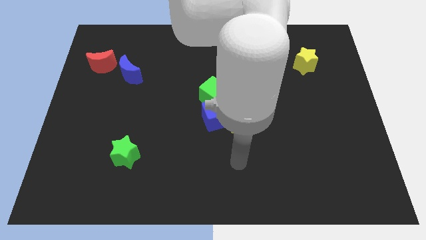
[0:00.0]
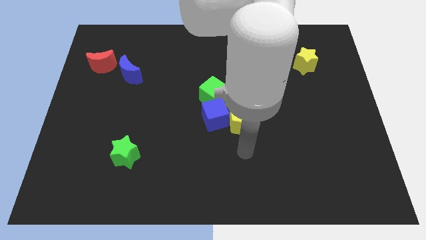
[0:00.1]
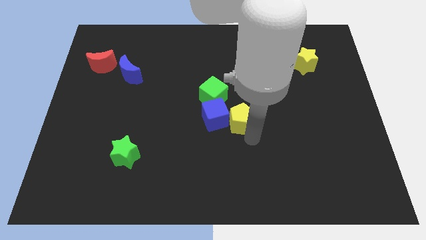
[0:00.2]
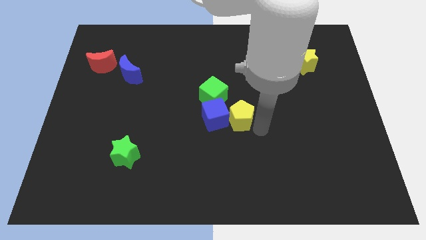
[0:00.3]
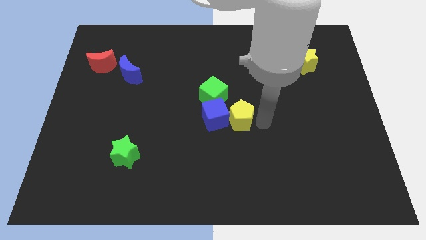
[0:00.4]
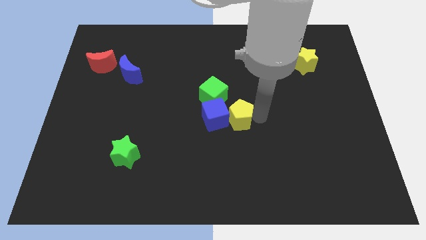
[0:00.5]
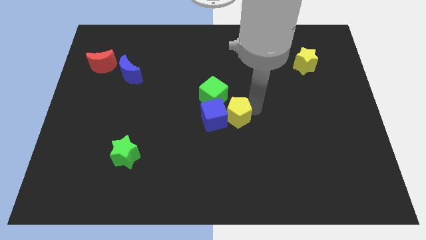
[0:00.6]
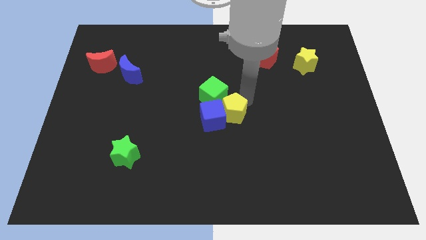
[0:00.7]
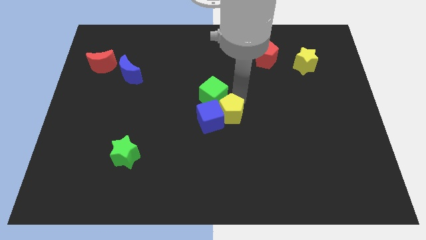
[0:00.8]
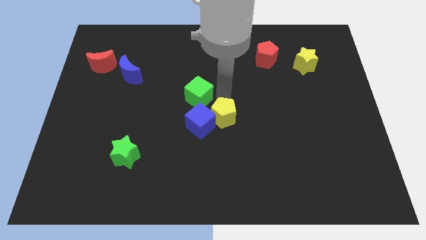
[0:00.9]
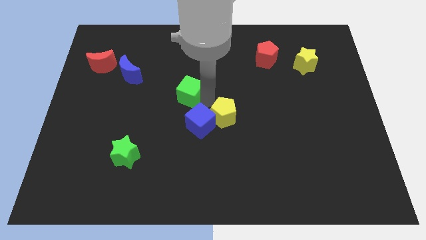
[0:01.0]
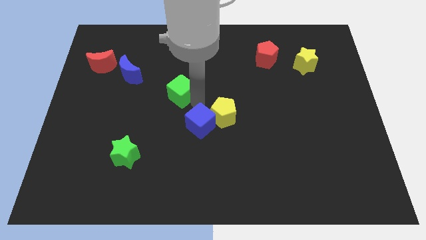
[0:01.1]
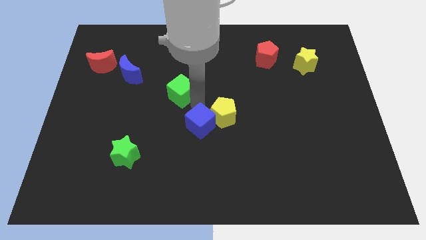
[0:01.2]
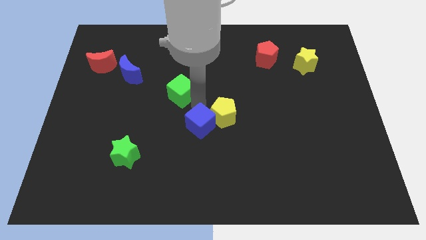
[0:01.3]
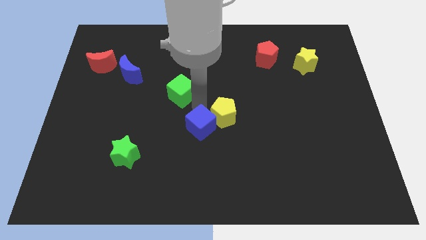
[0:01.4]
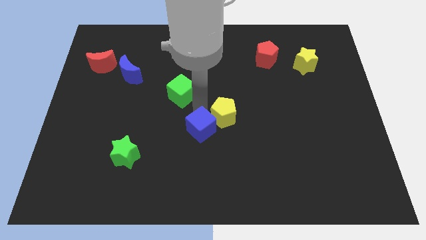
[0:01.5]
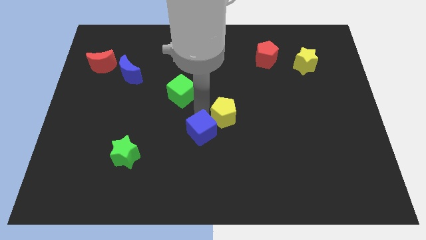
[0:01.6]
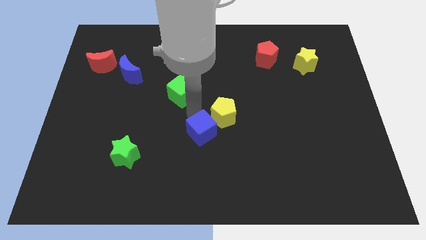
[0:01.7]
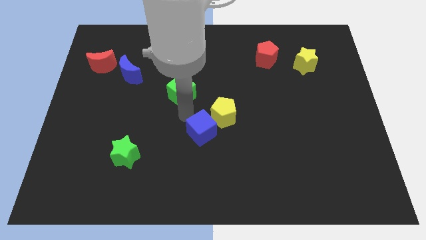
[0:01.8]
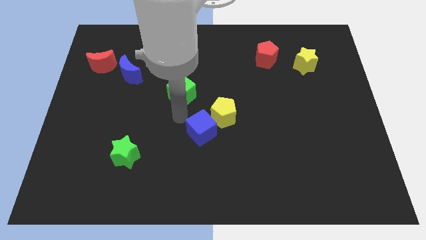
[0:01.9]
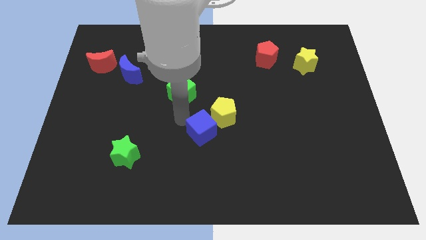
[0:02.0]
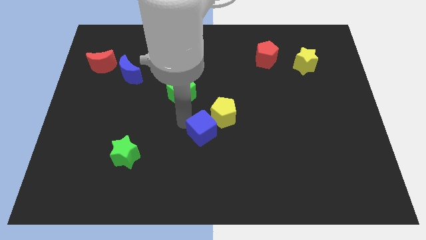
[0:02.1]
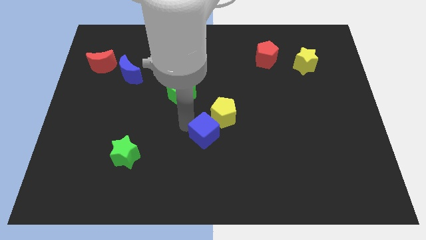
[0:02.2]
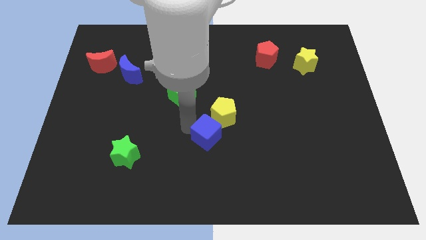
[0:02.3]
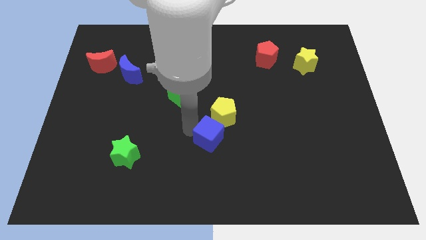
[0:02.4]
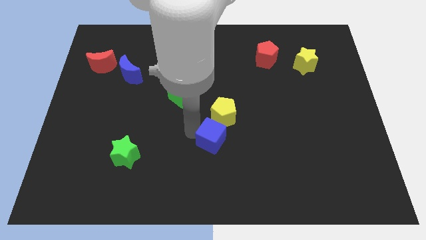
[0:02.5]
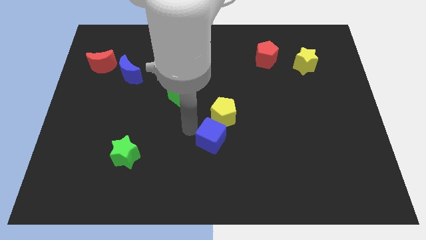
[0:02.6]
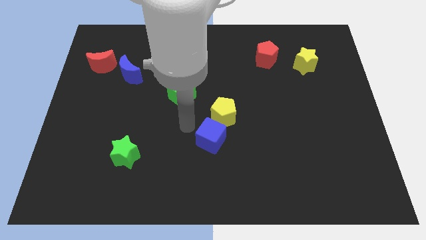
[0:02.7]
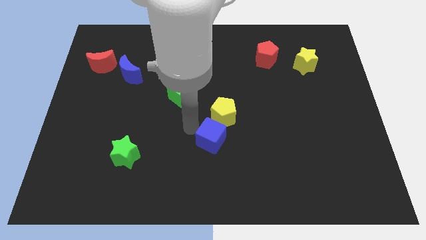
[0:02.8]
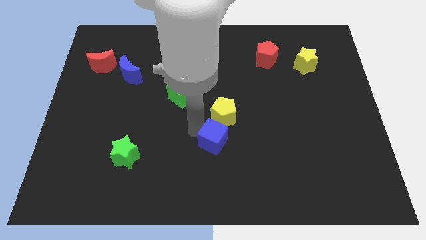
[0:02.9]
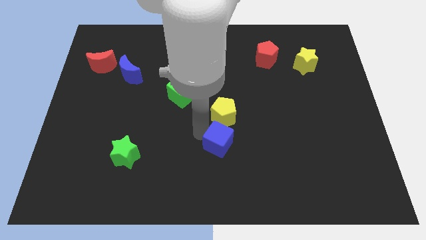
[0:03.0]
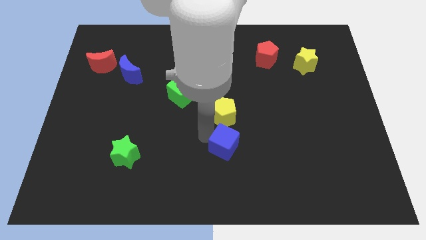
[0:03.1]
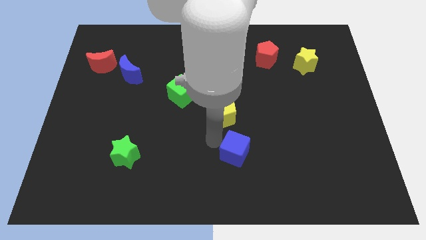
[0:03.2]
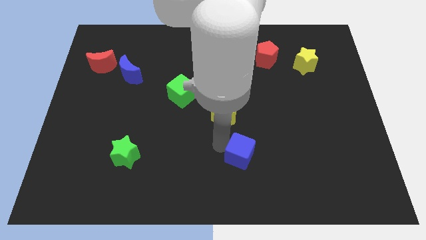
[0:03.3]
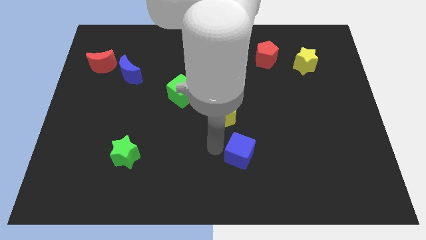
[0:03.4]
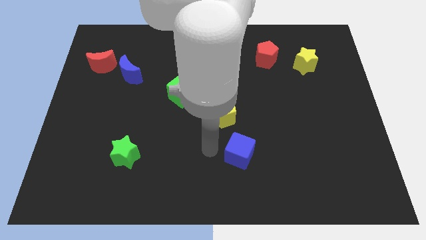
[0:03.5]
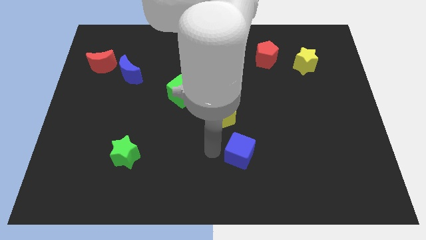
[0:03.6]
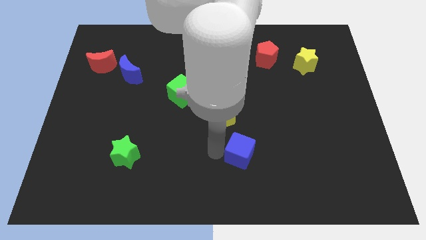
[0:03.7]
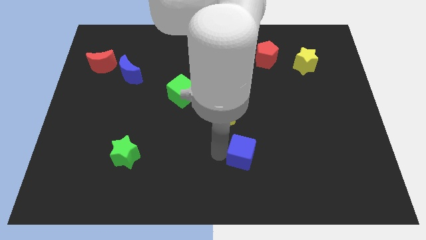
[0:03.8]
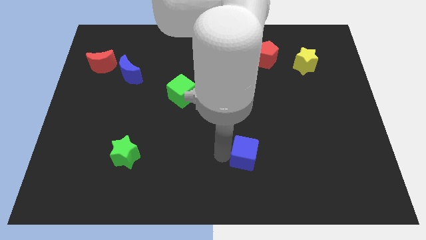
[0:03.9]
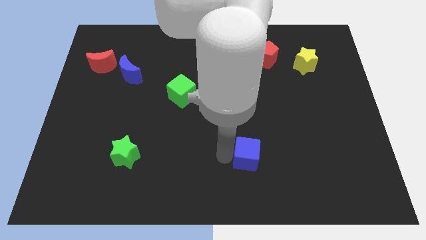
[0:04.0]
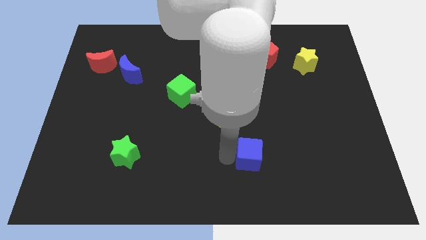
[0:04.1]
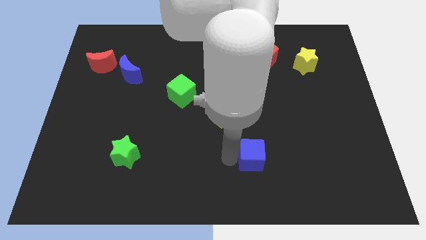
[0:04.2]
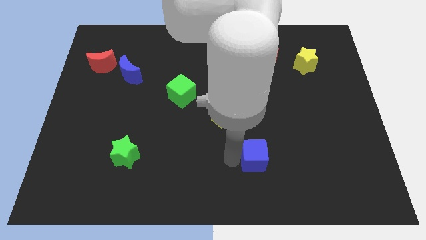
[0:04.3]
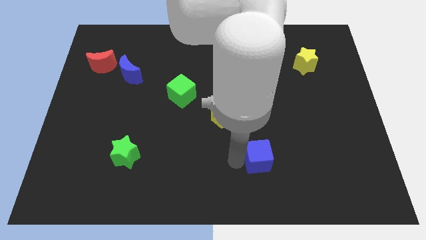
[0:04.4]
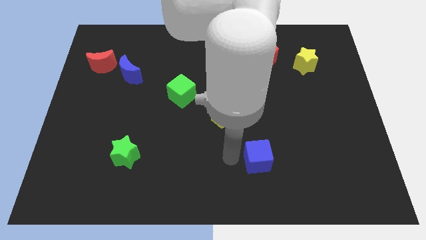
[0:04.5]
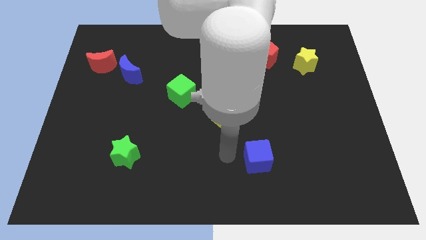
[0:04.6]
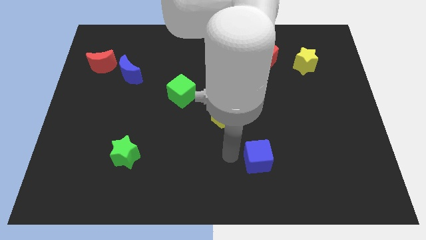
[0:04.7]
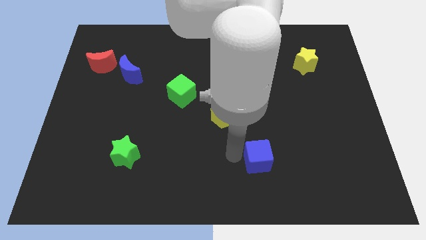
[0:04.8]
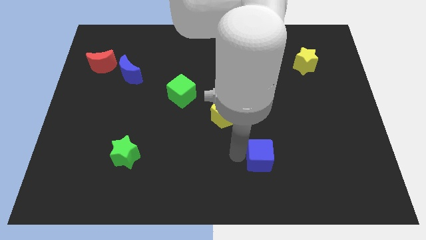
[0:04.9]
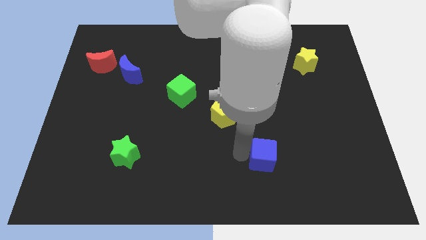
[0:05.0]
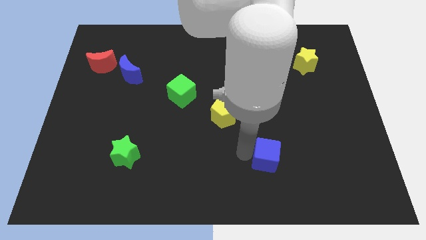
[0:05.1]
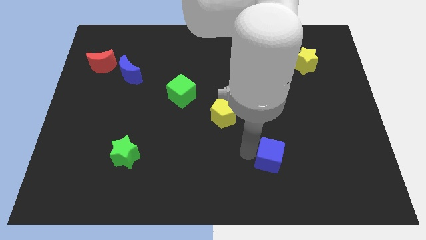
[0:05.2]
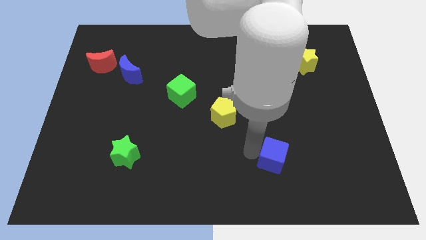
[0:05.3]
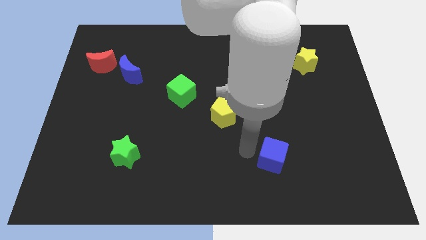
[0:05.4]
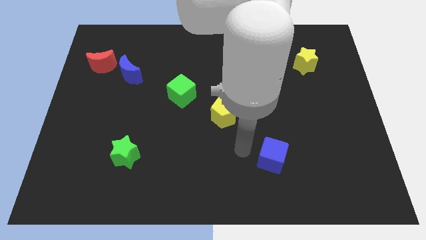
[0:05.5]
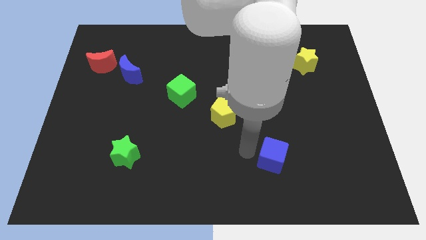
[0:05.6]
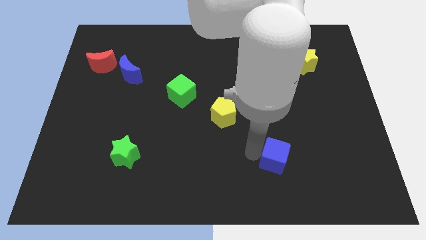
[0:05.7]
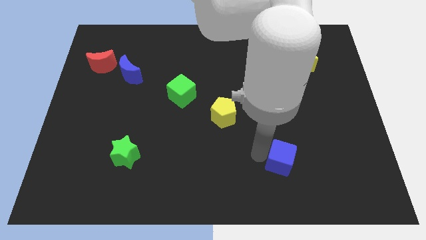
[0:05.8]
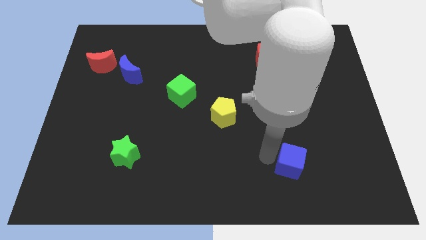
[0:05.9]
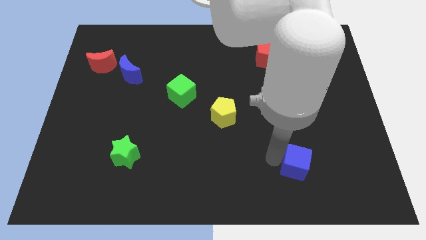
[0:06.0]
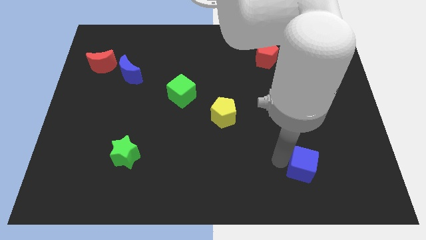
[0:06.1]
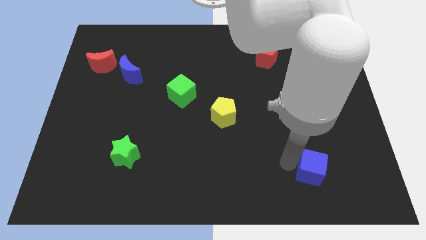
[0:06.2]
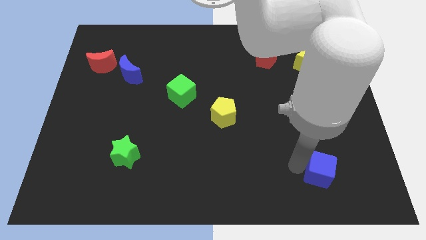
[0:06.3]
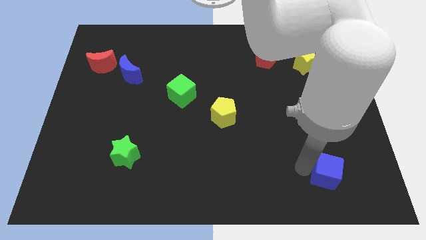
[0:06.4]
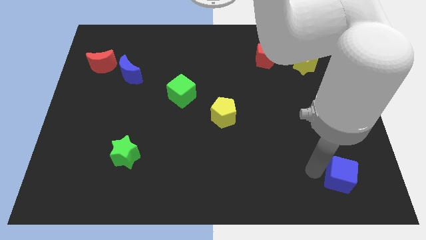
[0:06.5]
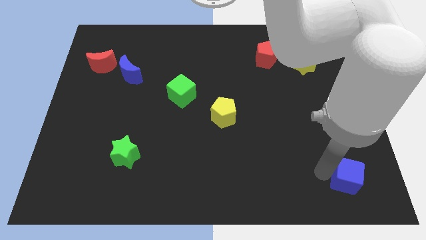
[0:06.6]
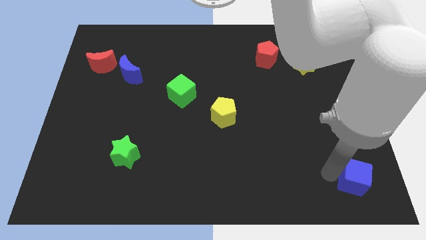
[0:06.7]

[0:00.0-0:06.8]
move the blue cube to the bottom right of the board
